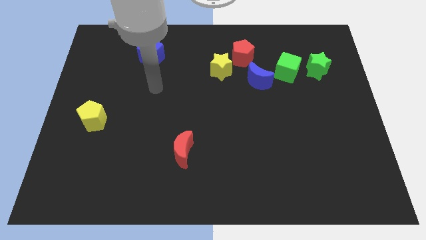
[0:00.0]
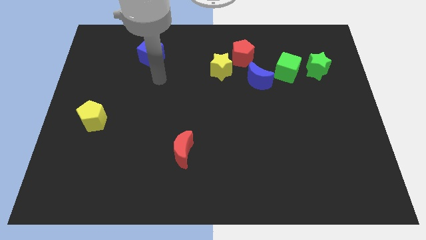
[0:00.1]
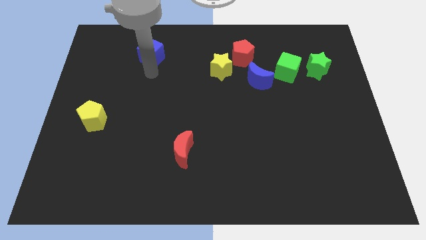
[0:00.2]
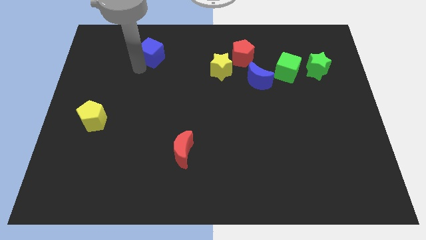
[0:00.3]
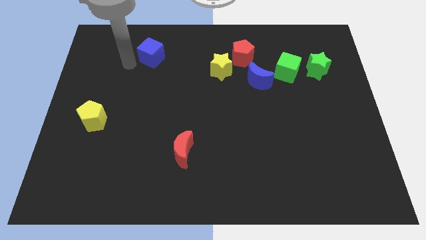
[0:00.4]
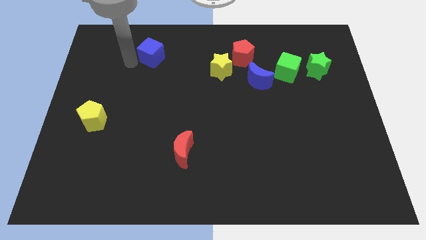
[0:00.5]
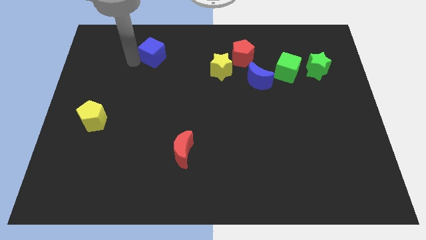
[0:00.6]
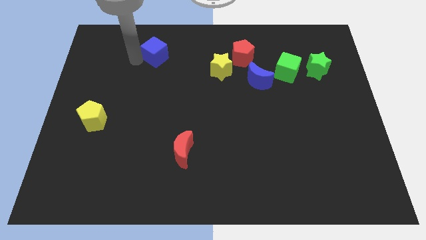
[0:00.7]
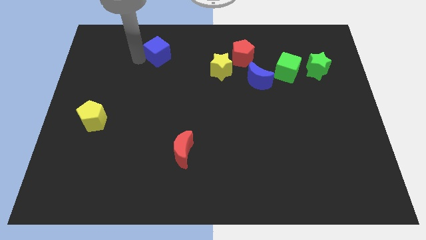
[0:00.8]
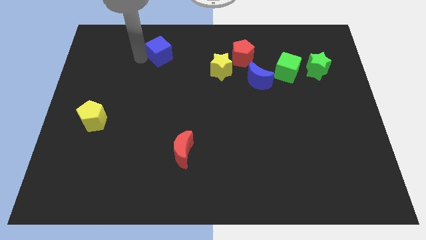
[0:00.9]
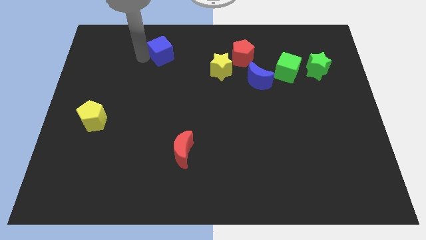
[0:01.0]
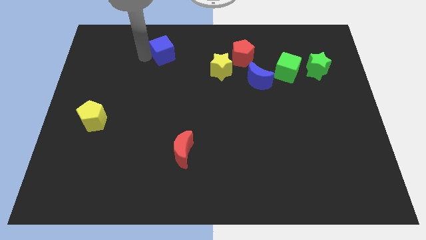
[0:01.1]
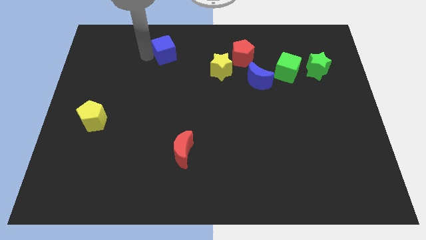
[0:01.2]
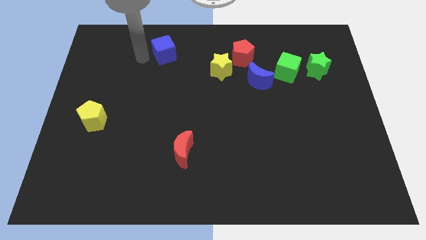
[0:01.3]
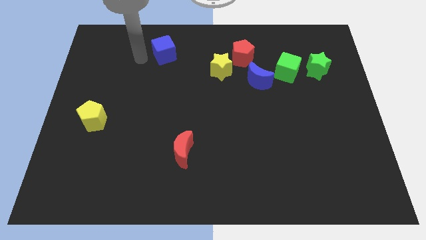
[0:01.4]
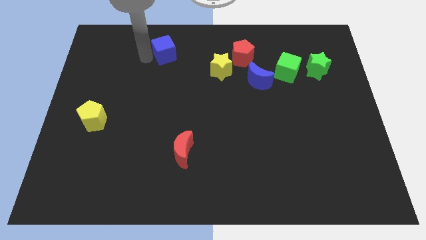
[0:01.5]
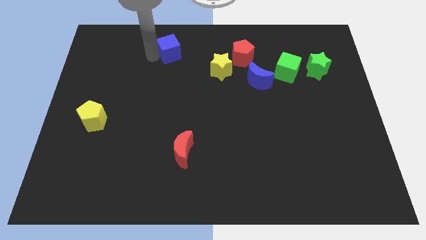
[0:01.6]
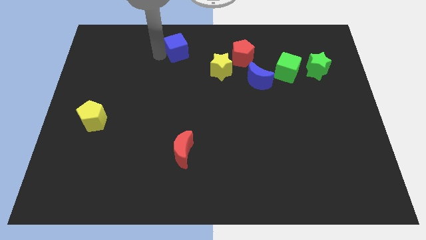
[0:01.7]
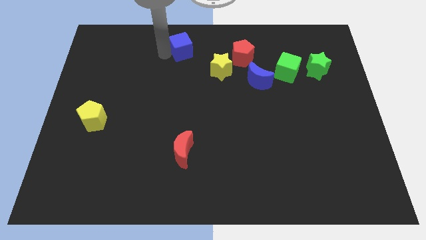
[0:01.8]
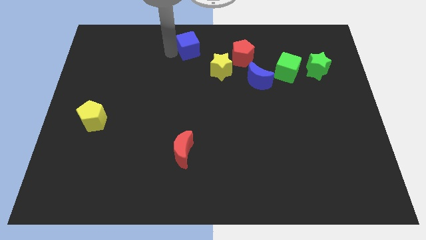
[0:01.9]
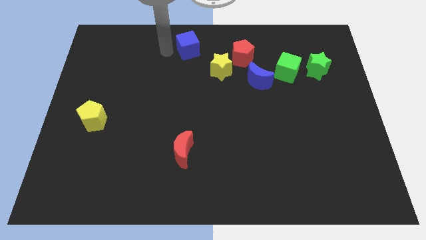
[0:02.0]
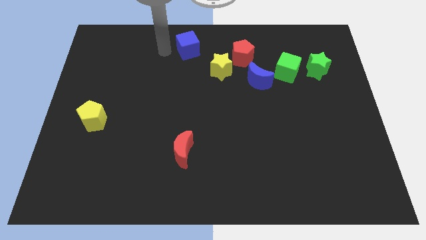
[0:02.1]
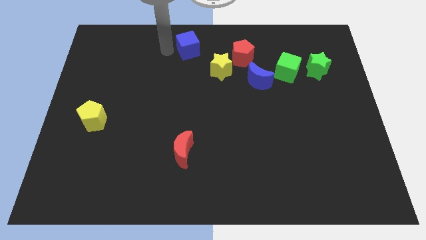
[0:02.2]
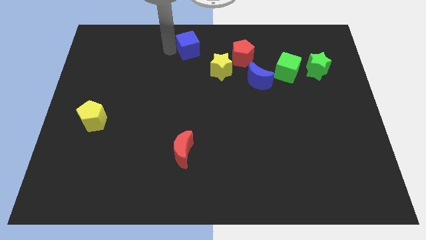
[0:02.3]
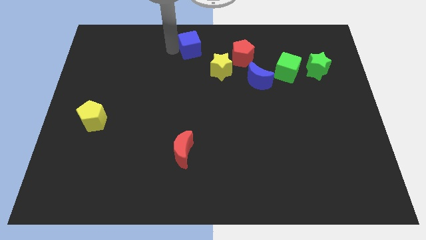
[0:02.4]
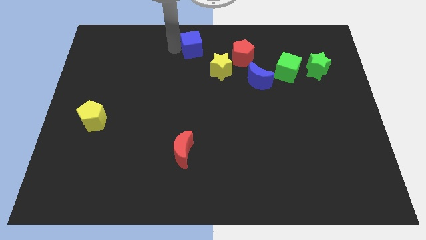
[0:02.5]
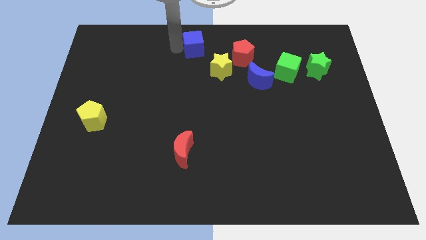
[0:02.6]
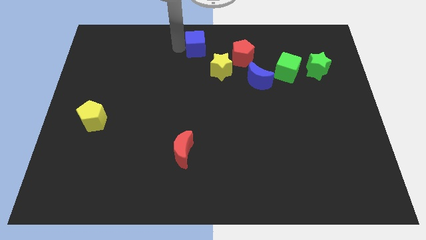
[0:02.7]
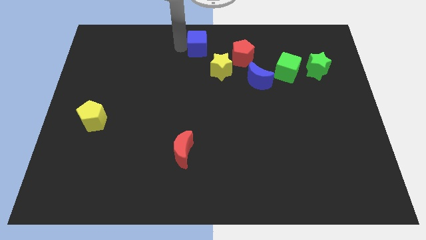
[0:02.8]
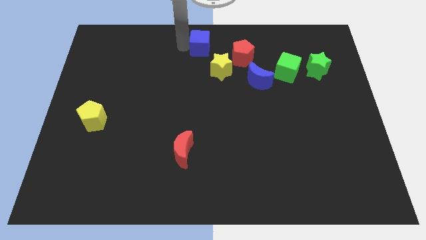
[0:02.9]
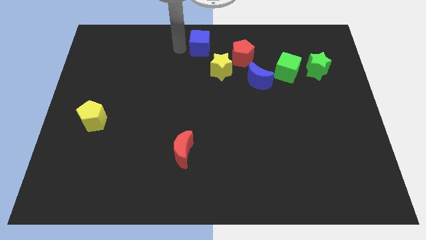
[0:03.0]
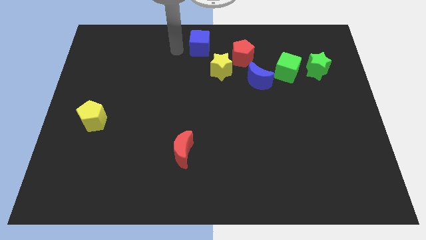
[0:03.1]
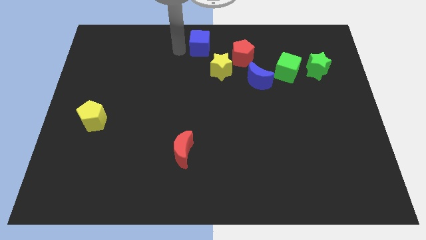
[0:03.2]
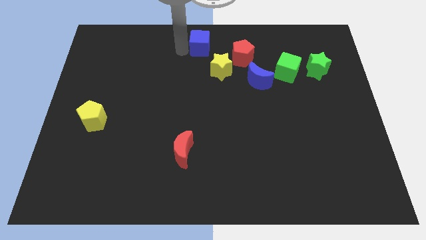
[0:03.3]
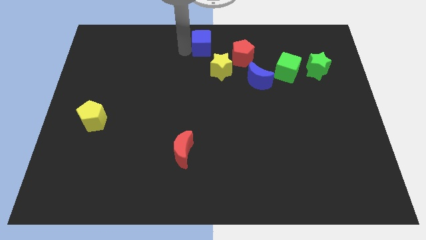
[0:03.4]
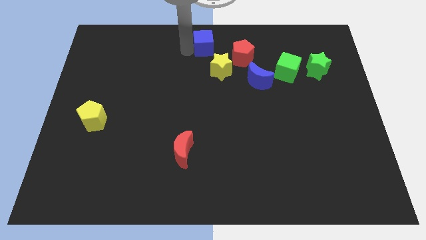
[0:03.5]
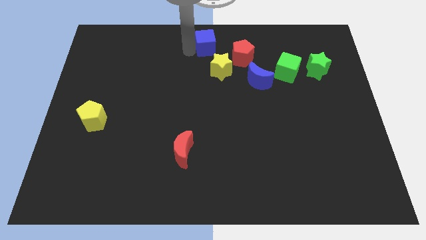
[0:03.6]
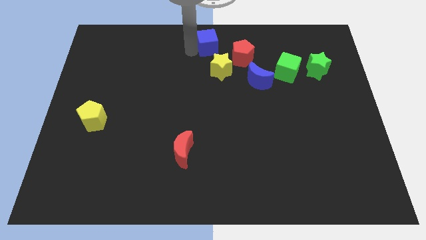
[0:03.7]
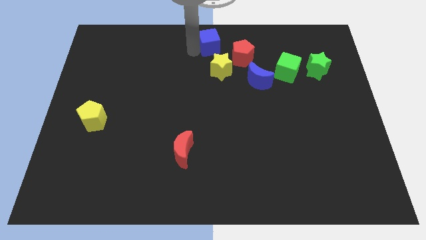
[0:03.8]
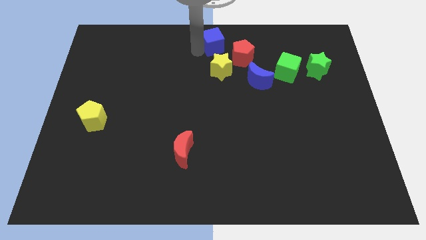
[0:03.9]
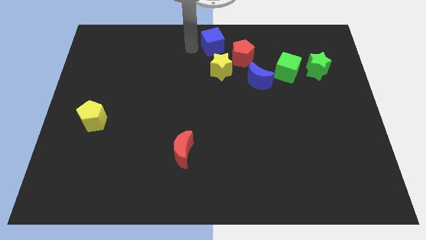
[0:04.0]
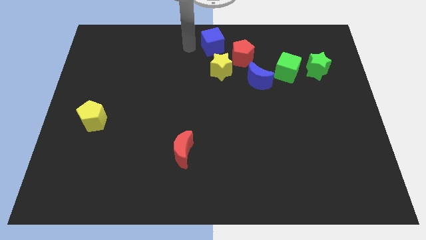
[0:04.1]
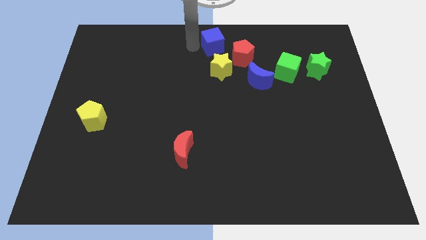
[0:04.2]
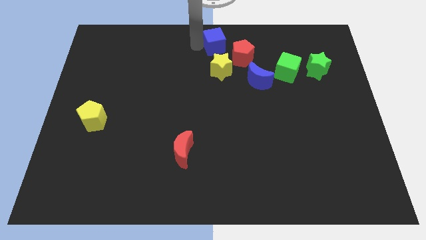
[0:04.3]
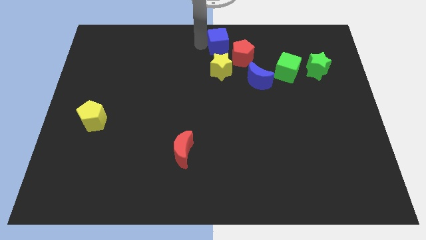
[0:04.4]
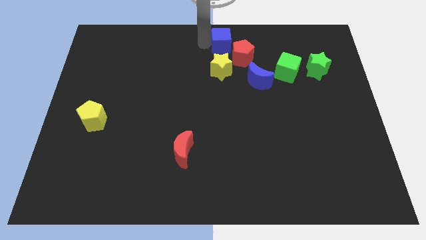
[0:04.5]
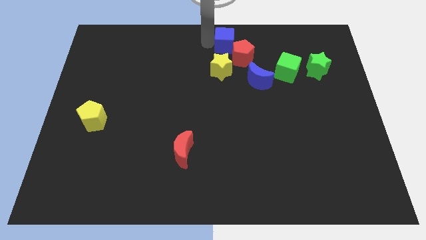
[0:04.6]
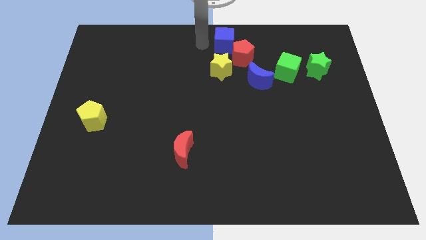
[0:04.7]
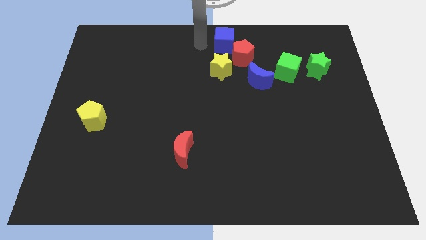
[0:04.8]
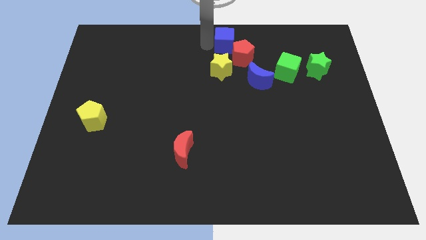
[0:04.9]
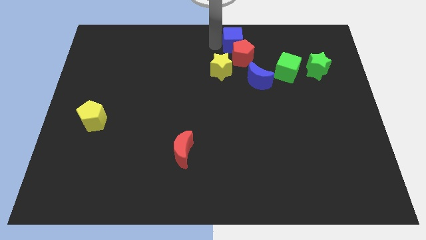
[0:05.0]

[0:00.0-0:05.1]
slide the blue cube right

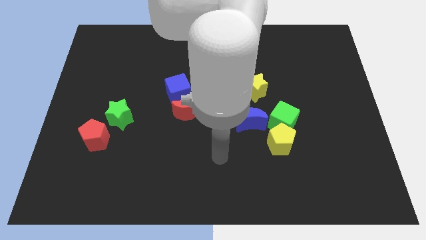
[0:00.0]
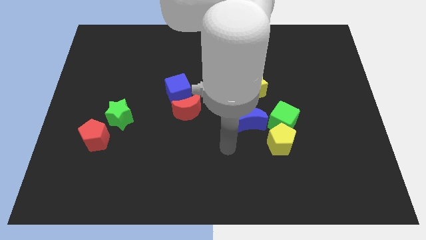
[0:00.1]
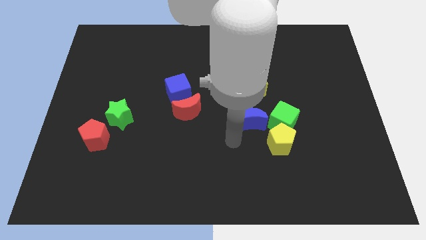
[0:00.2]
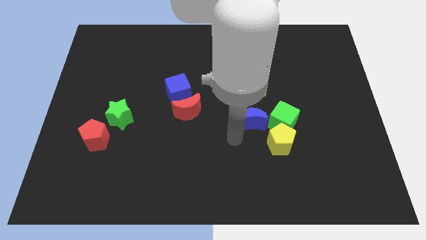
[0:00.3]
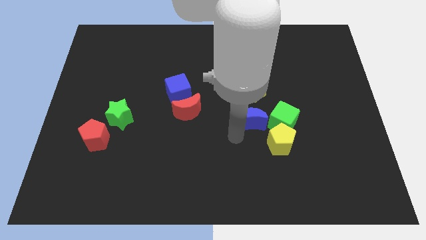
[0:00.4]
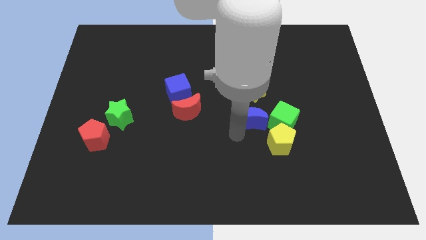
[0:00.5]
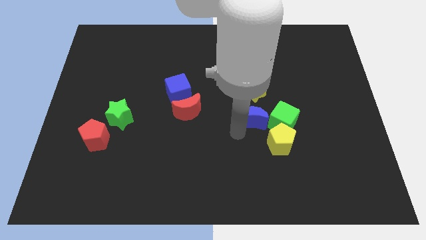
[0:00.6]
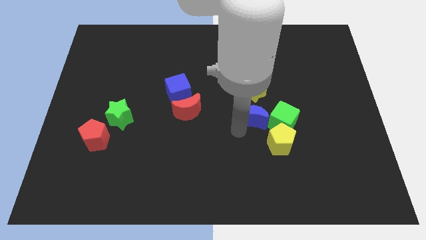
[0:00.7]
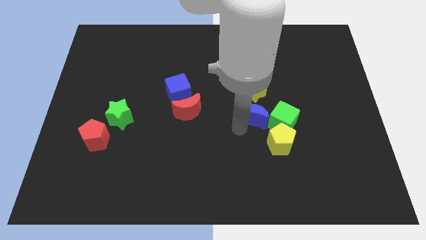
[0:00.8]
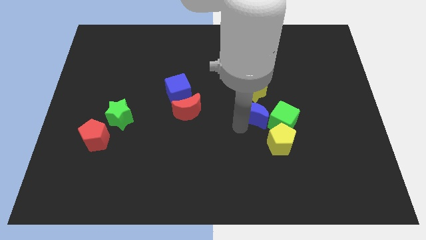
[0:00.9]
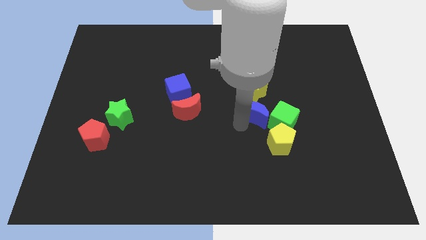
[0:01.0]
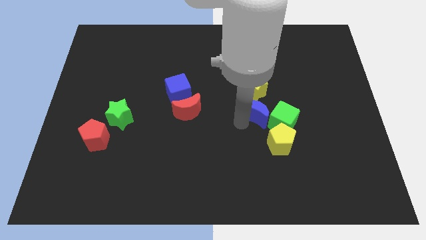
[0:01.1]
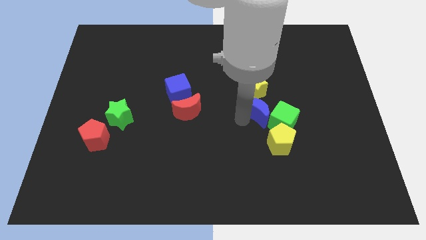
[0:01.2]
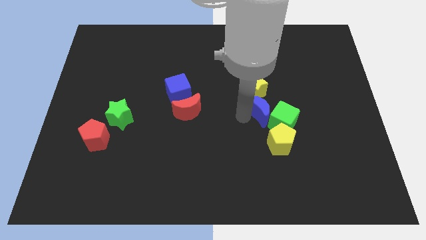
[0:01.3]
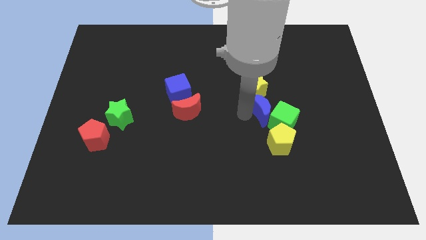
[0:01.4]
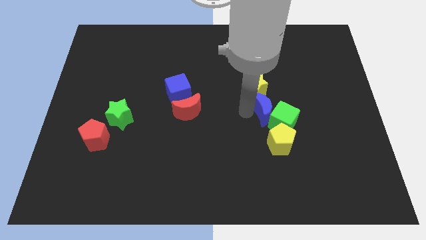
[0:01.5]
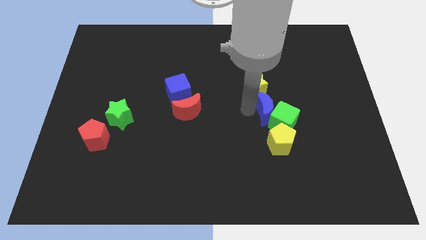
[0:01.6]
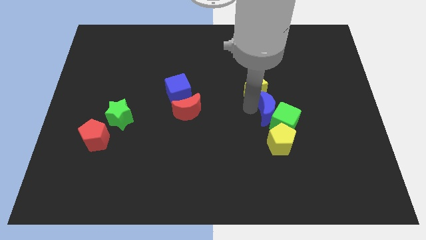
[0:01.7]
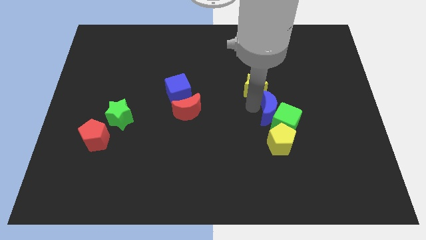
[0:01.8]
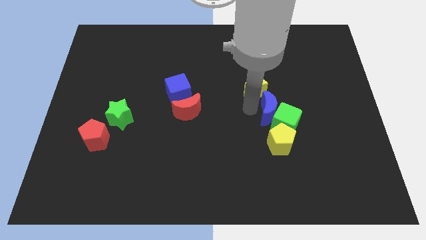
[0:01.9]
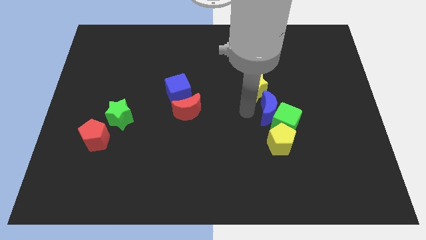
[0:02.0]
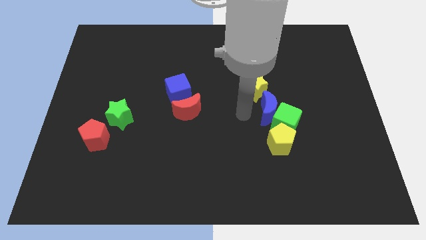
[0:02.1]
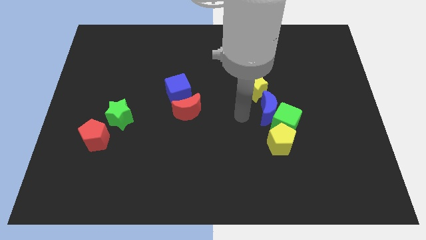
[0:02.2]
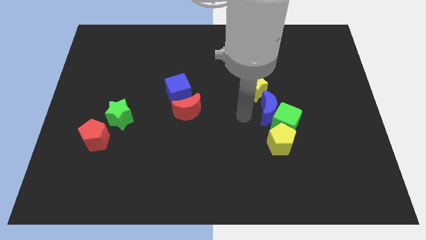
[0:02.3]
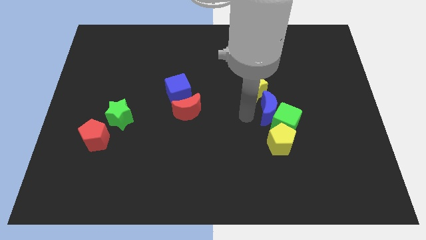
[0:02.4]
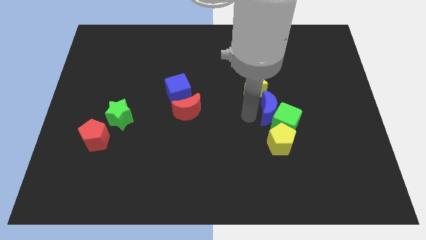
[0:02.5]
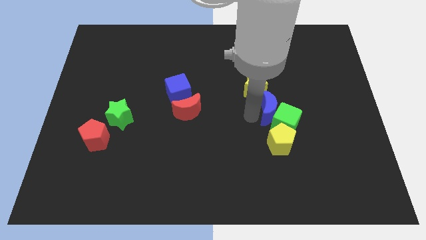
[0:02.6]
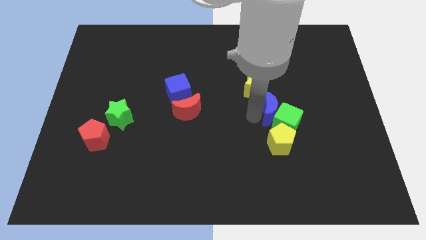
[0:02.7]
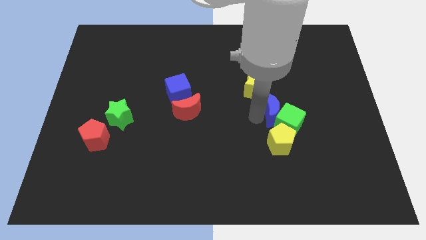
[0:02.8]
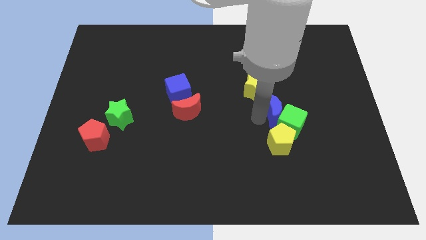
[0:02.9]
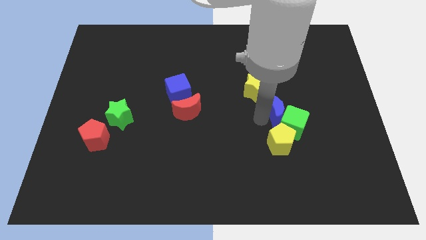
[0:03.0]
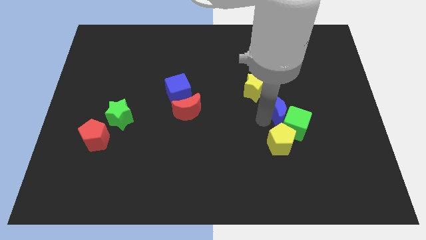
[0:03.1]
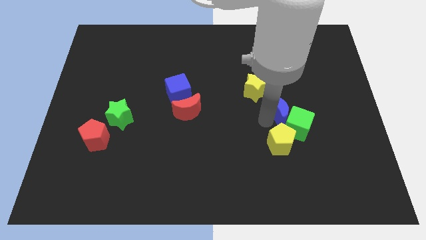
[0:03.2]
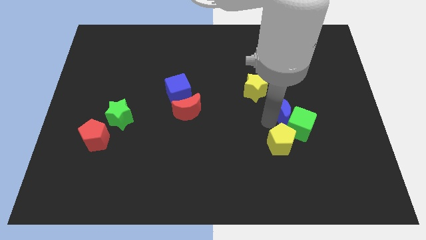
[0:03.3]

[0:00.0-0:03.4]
slightly push the blue moon right
